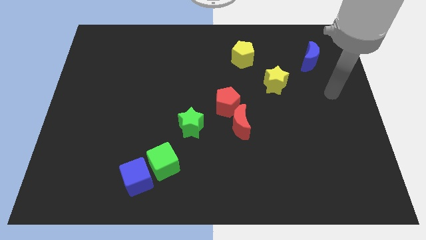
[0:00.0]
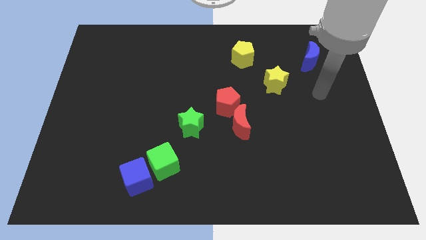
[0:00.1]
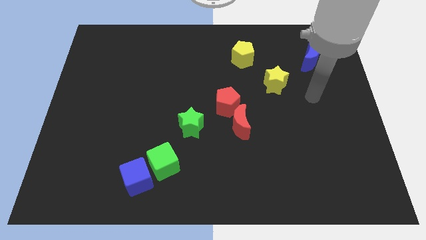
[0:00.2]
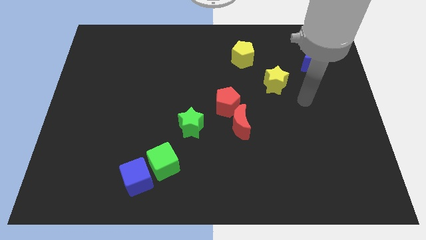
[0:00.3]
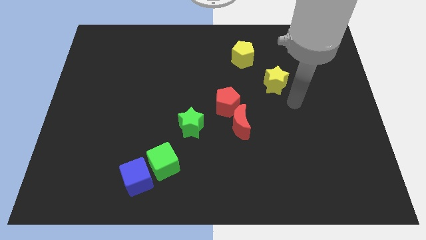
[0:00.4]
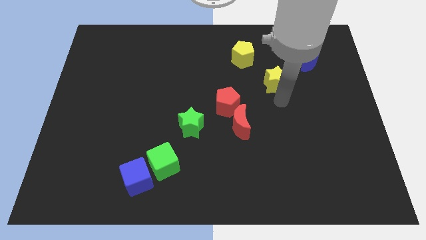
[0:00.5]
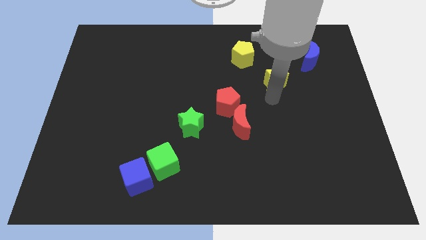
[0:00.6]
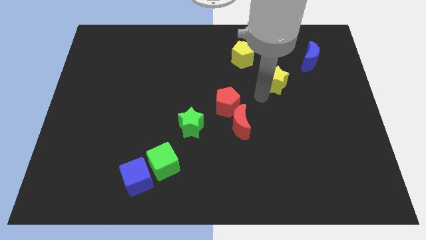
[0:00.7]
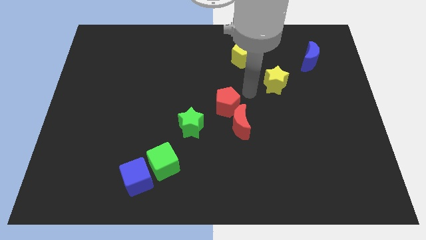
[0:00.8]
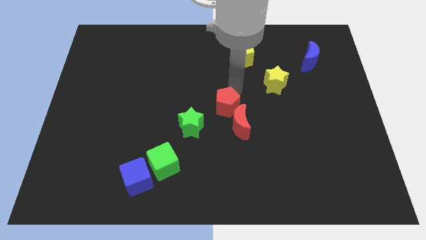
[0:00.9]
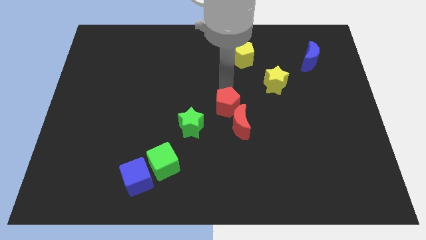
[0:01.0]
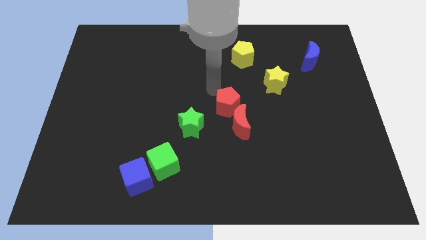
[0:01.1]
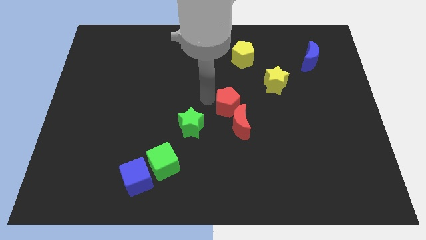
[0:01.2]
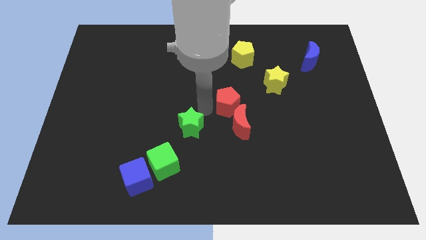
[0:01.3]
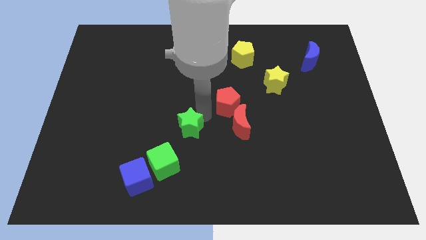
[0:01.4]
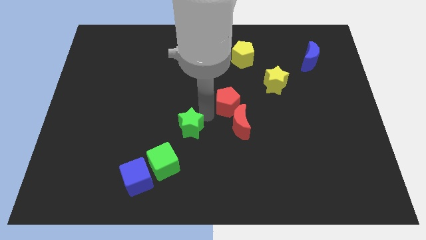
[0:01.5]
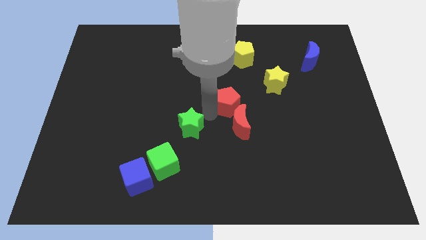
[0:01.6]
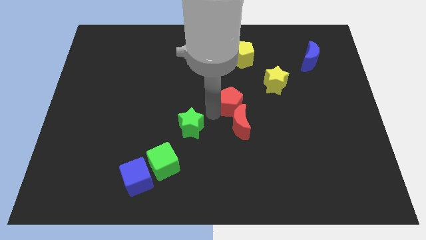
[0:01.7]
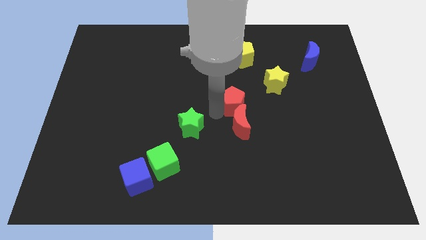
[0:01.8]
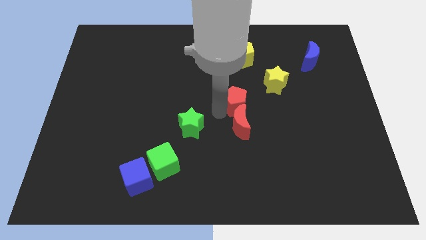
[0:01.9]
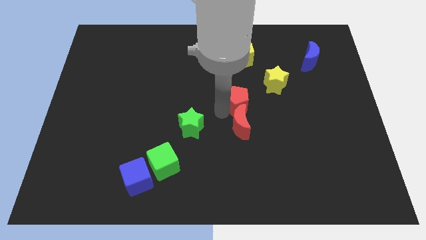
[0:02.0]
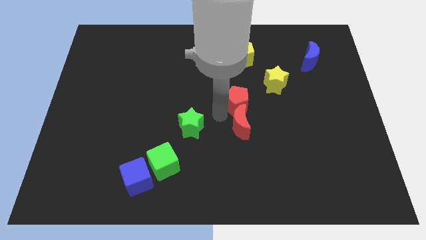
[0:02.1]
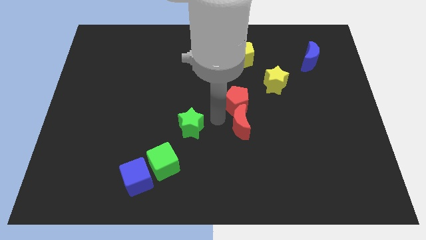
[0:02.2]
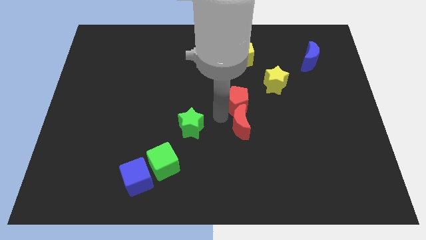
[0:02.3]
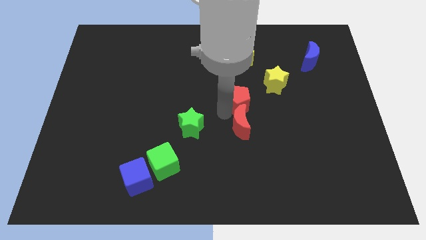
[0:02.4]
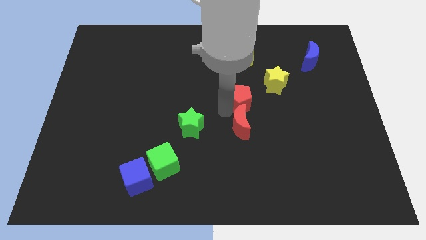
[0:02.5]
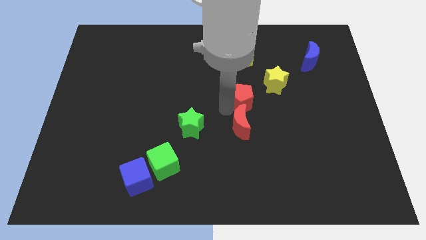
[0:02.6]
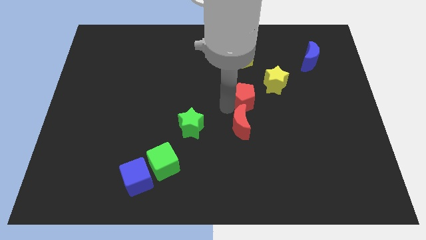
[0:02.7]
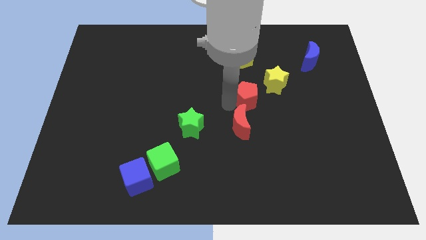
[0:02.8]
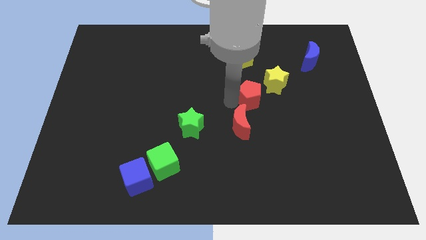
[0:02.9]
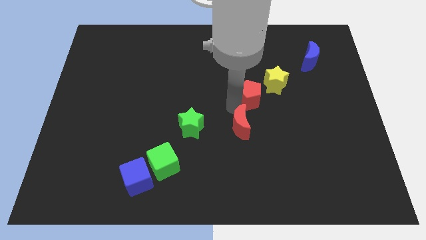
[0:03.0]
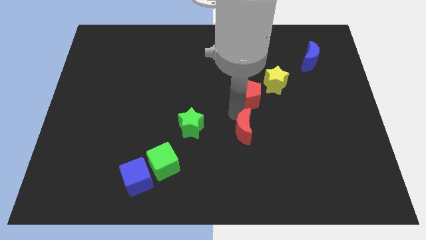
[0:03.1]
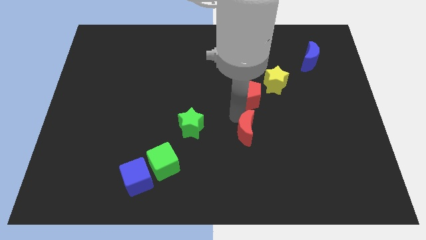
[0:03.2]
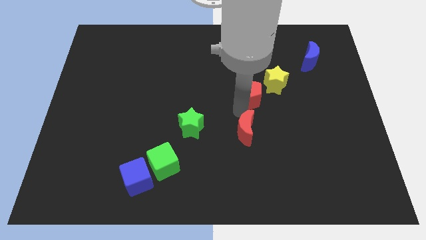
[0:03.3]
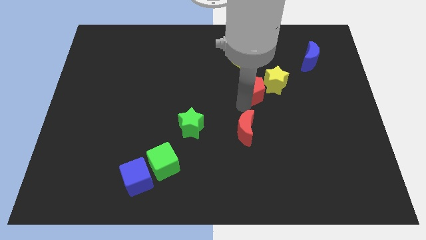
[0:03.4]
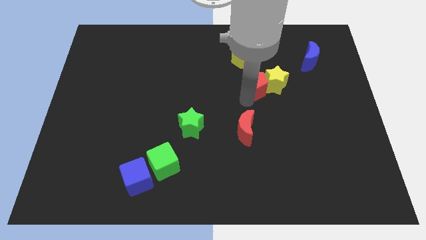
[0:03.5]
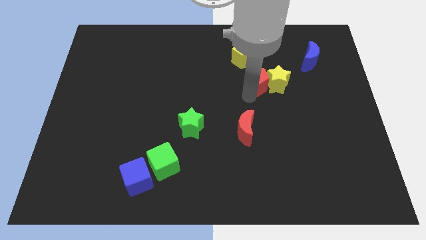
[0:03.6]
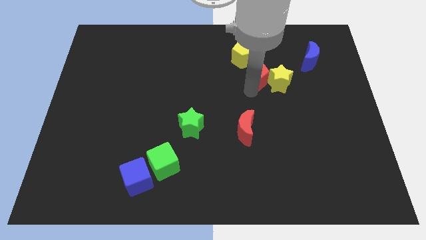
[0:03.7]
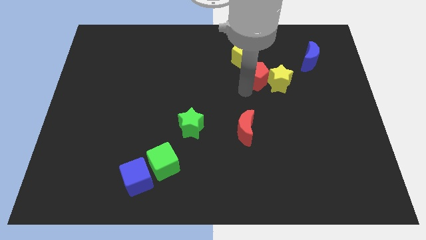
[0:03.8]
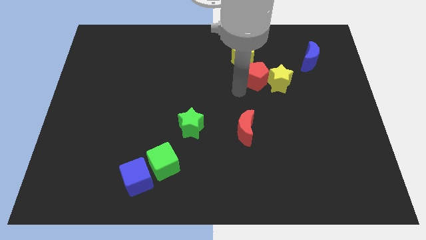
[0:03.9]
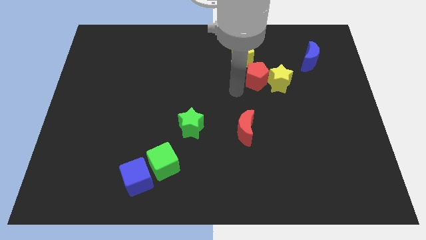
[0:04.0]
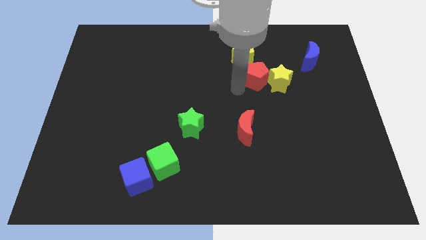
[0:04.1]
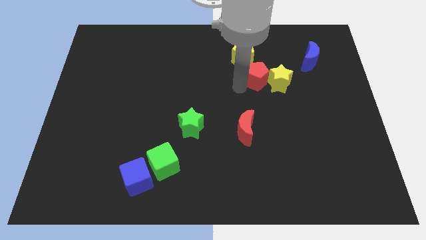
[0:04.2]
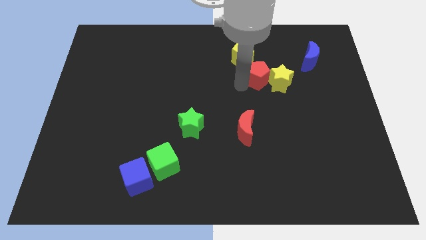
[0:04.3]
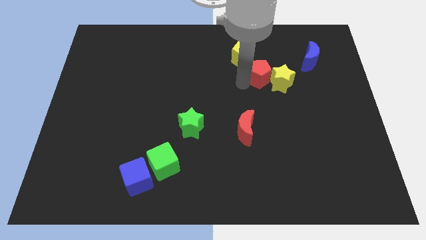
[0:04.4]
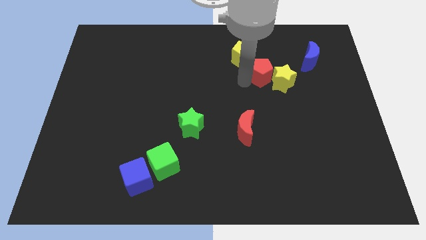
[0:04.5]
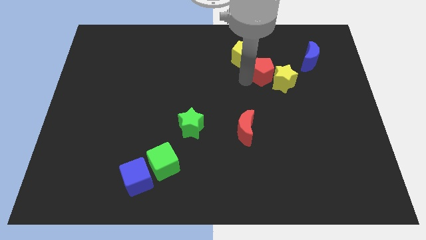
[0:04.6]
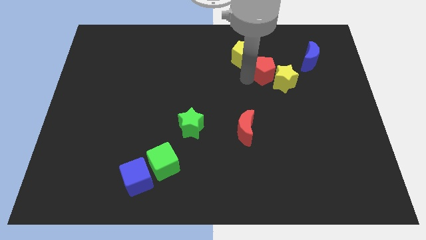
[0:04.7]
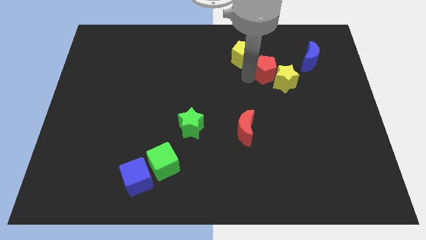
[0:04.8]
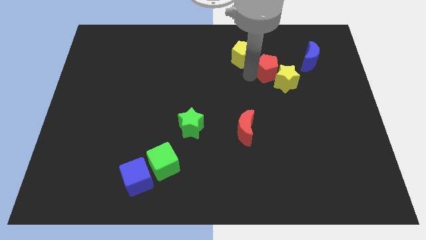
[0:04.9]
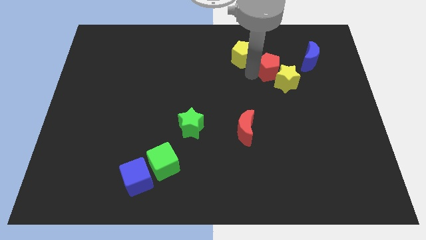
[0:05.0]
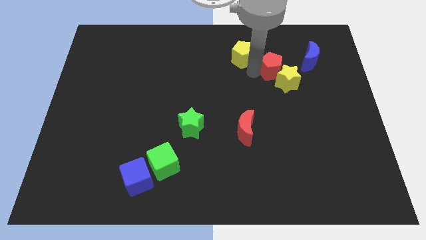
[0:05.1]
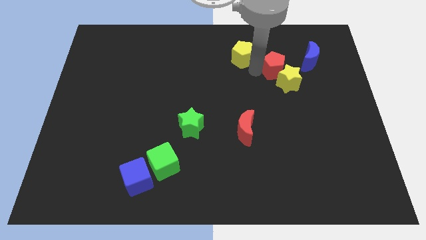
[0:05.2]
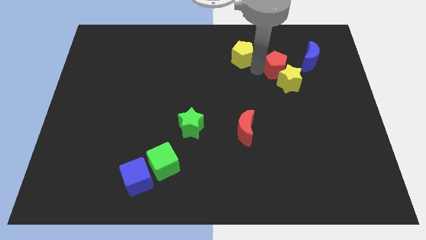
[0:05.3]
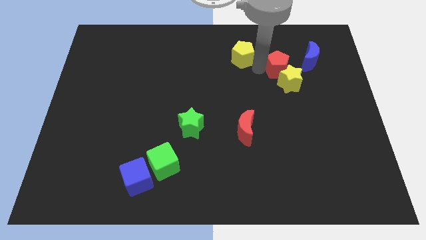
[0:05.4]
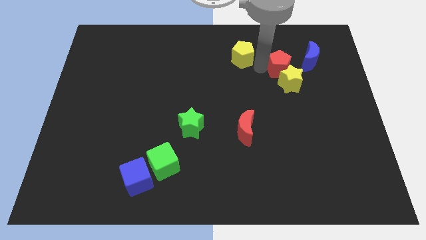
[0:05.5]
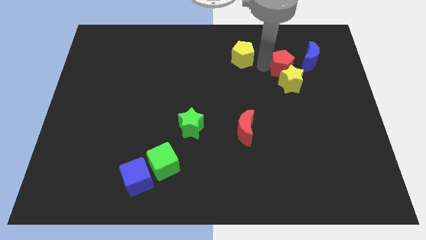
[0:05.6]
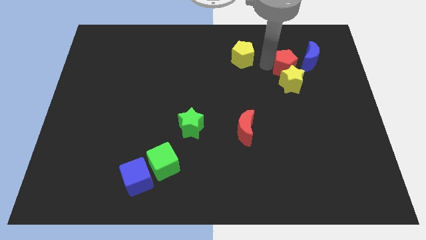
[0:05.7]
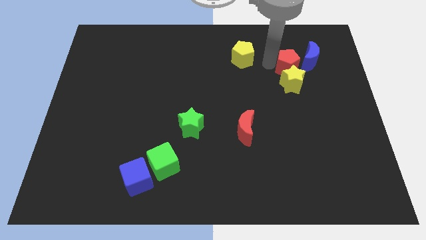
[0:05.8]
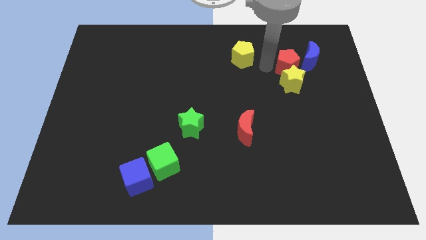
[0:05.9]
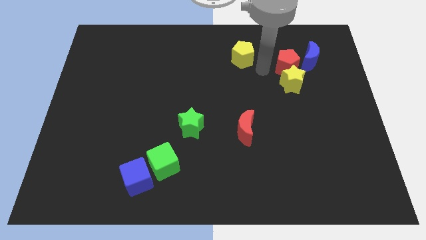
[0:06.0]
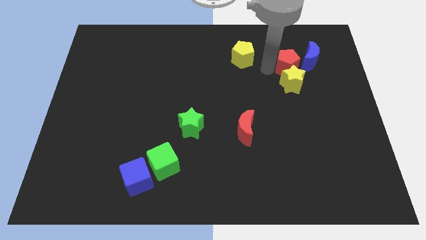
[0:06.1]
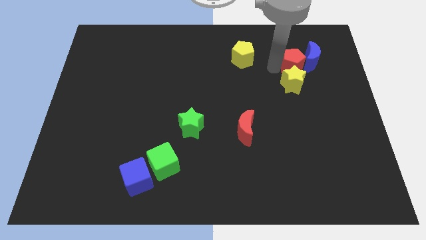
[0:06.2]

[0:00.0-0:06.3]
move the red pentagon next to the blue moon

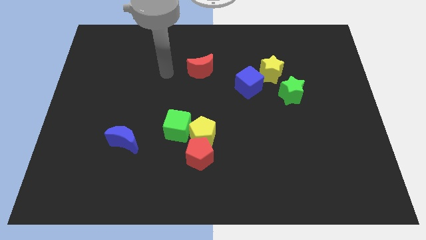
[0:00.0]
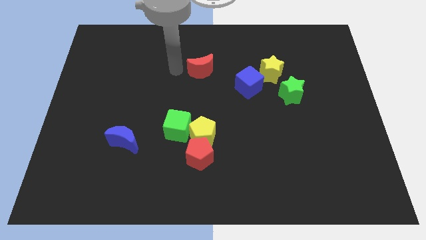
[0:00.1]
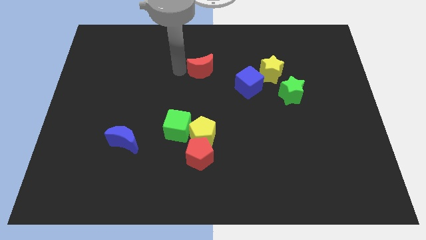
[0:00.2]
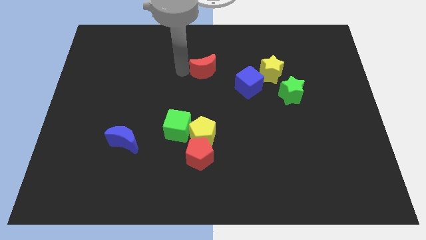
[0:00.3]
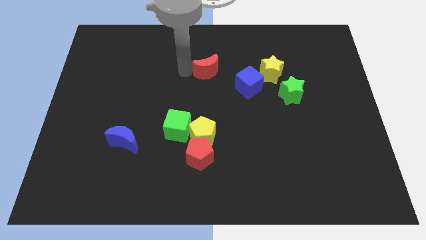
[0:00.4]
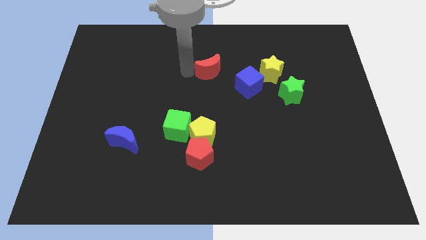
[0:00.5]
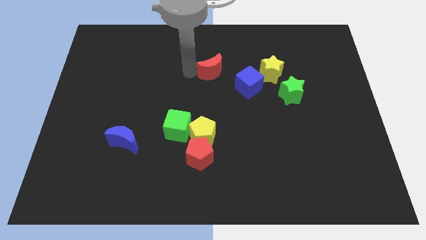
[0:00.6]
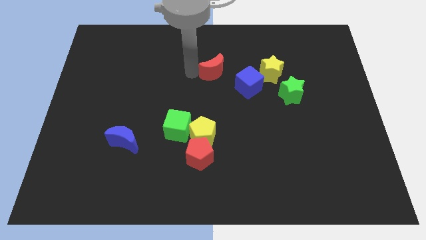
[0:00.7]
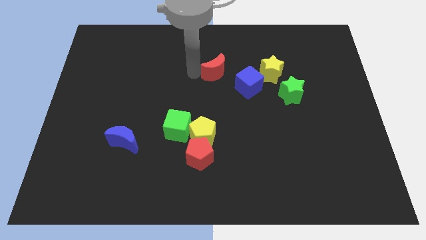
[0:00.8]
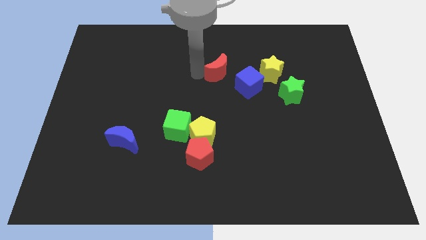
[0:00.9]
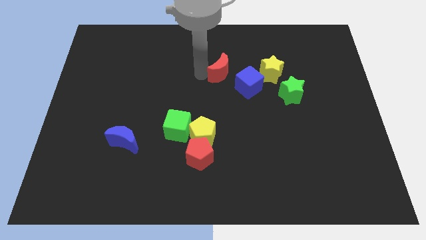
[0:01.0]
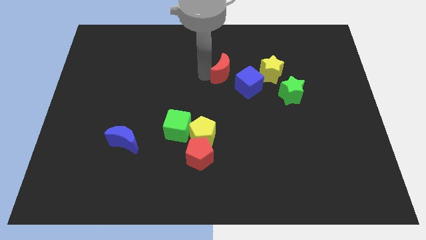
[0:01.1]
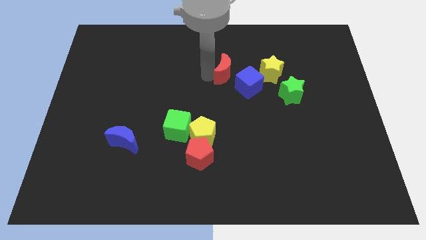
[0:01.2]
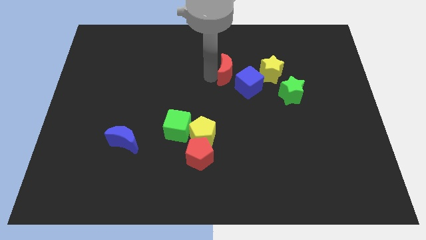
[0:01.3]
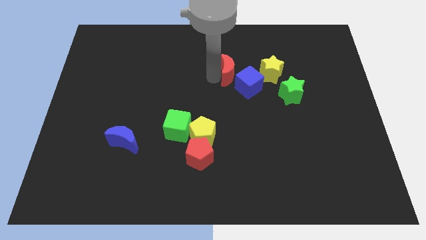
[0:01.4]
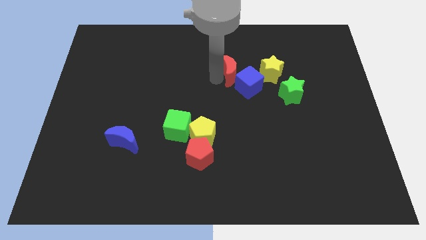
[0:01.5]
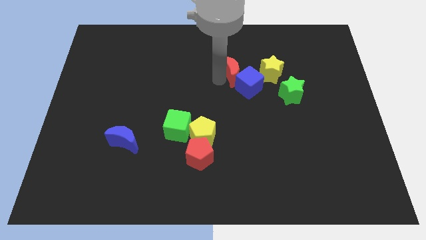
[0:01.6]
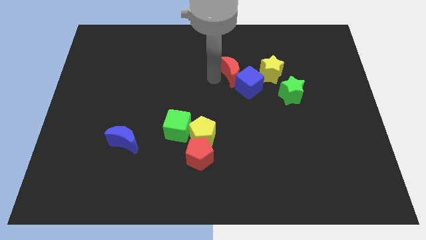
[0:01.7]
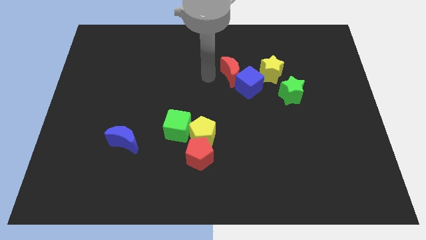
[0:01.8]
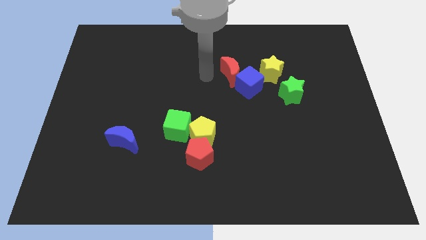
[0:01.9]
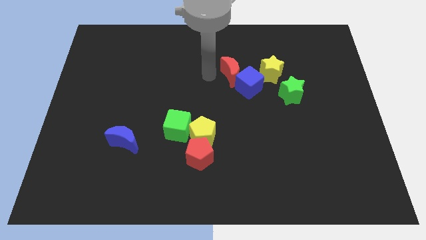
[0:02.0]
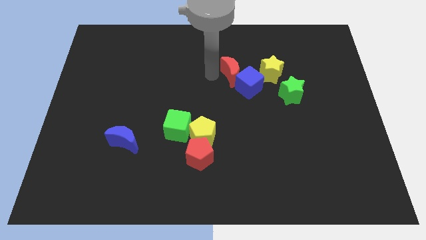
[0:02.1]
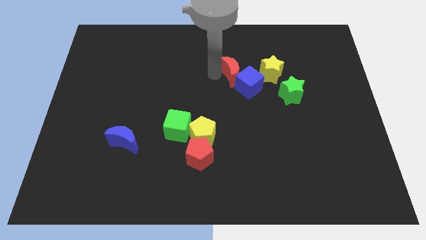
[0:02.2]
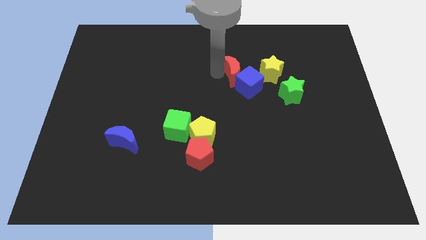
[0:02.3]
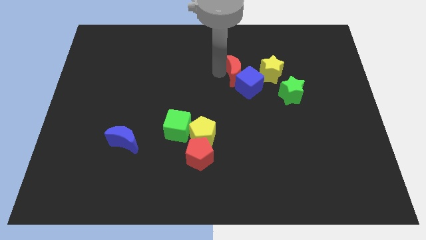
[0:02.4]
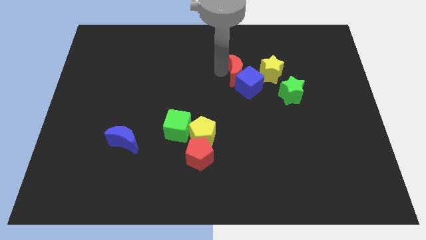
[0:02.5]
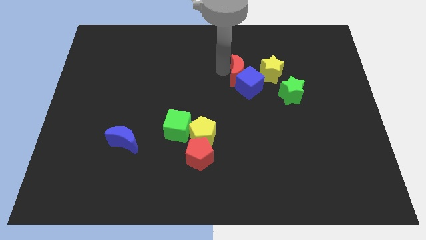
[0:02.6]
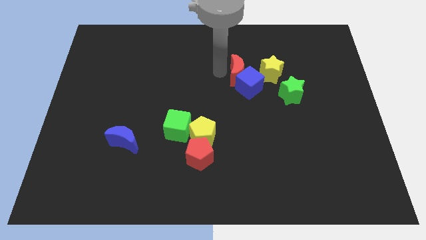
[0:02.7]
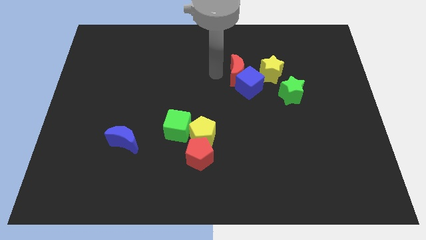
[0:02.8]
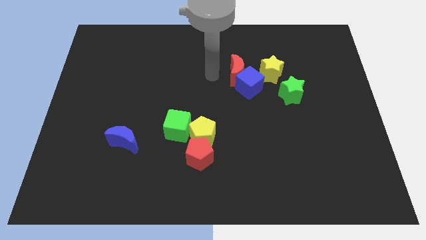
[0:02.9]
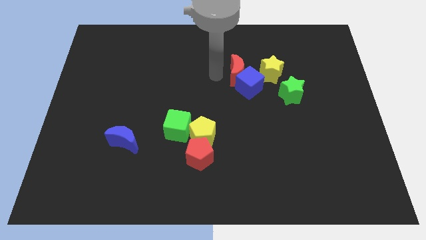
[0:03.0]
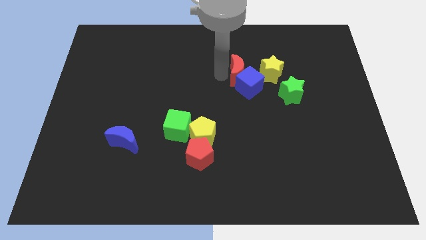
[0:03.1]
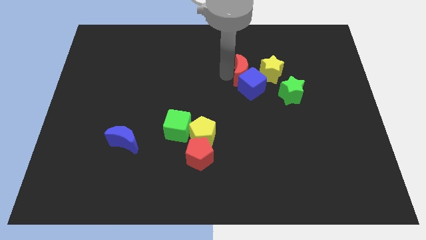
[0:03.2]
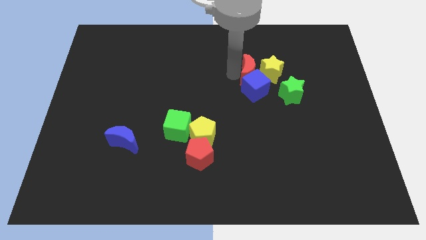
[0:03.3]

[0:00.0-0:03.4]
push the red moon to the yellow star
